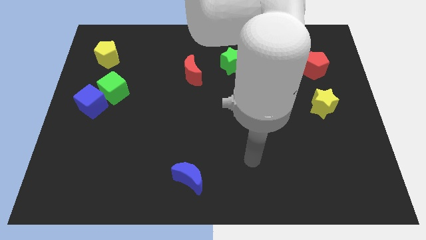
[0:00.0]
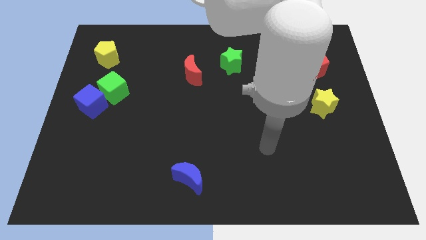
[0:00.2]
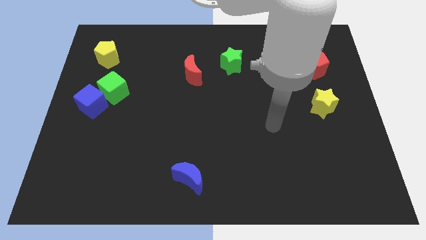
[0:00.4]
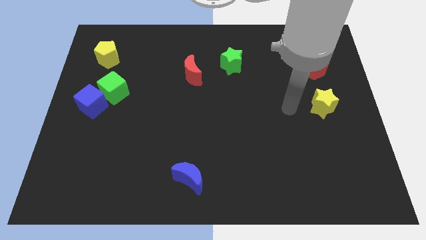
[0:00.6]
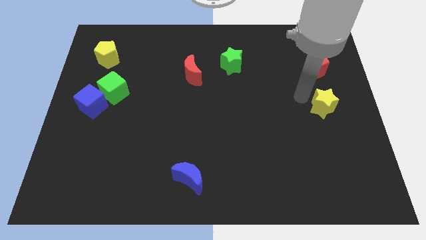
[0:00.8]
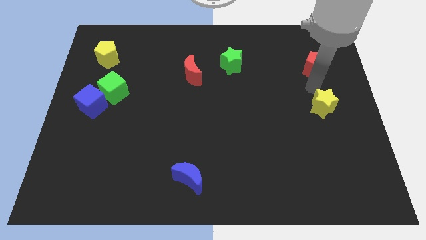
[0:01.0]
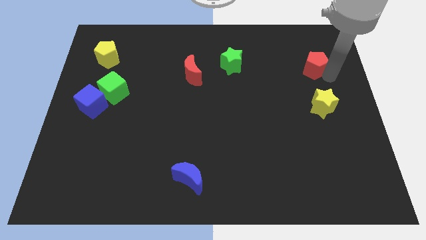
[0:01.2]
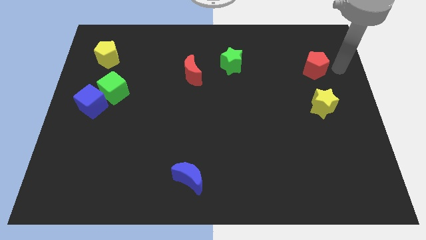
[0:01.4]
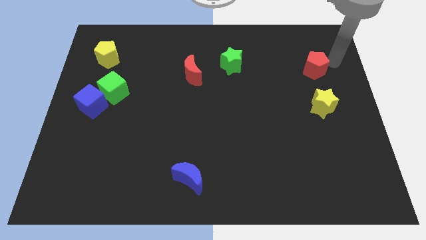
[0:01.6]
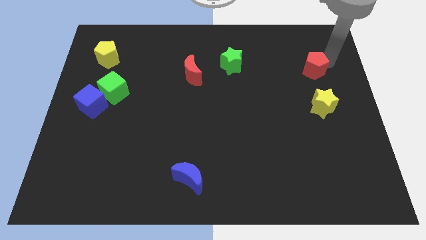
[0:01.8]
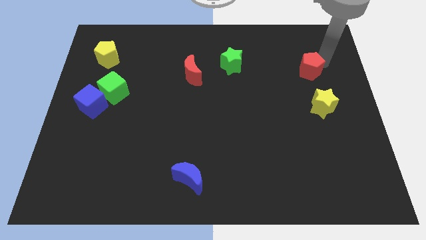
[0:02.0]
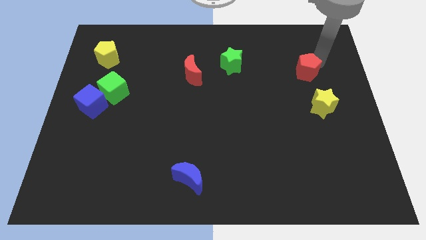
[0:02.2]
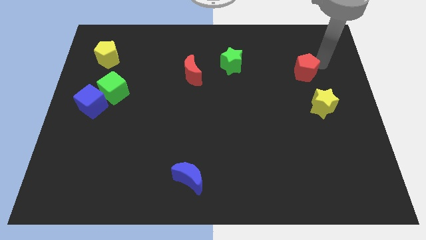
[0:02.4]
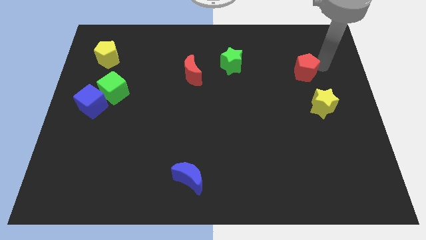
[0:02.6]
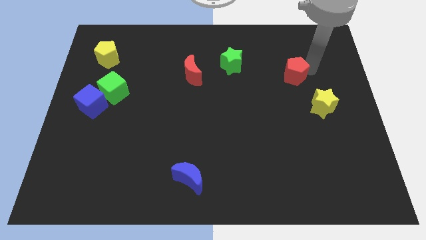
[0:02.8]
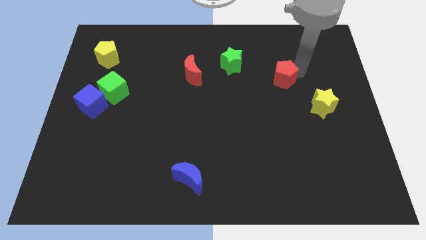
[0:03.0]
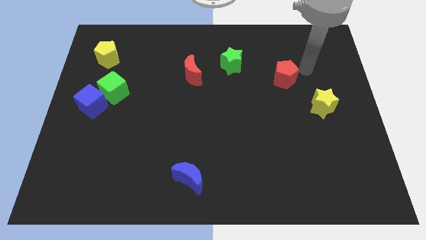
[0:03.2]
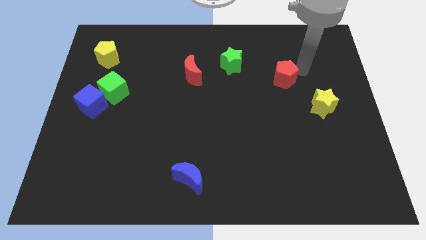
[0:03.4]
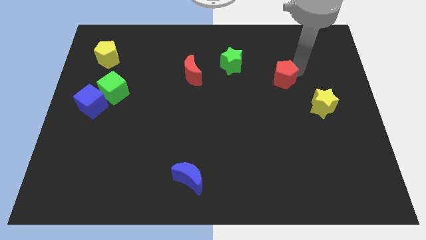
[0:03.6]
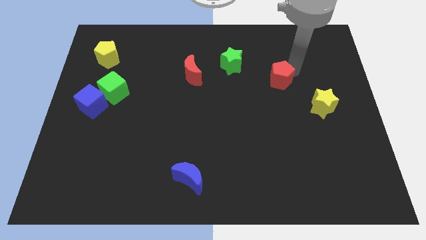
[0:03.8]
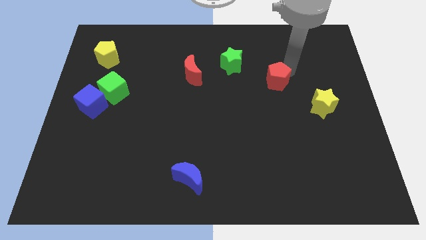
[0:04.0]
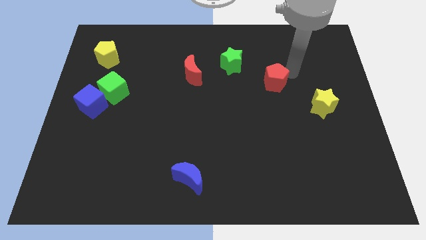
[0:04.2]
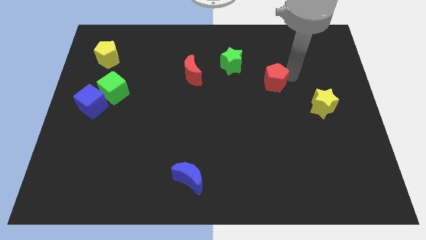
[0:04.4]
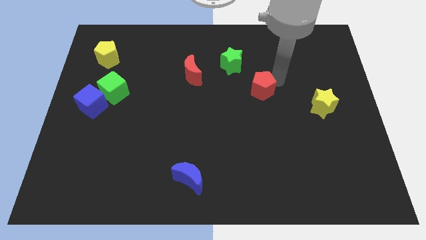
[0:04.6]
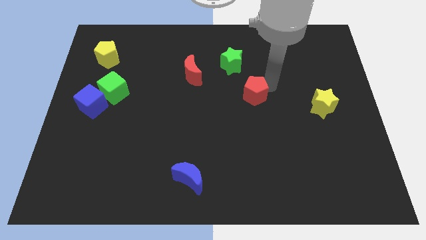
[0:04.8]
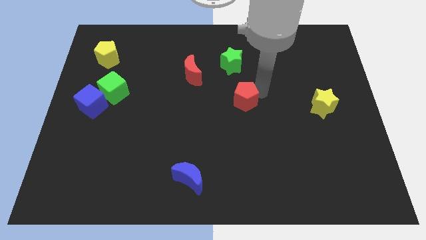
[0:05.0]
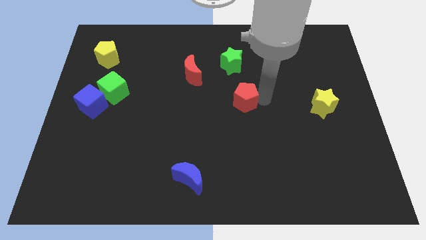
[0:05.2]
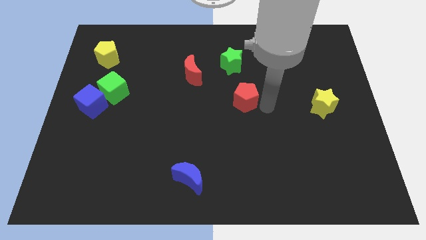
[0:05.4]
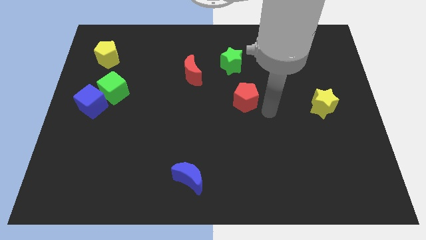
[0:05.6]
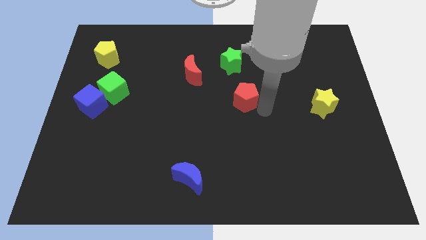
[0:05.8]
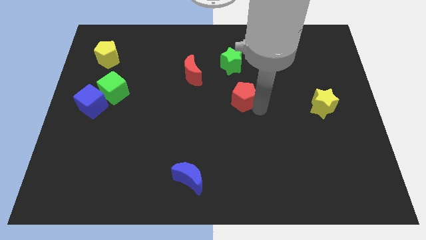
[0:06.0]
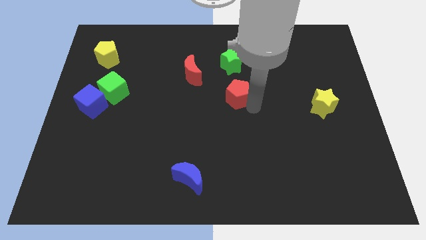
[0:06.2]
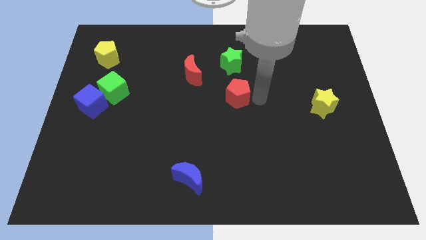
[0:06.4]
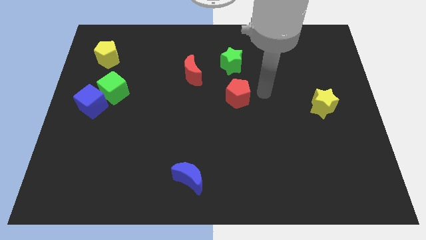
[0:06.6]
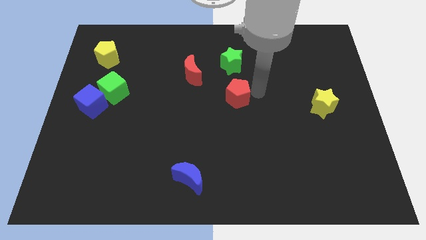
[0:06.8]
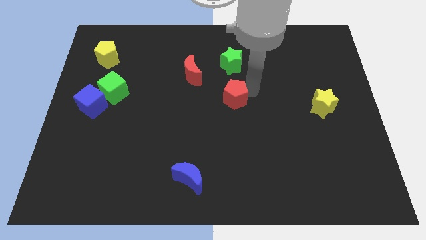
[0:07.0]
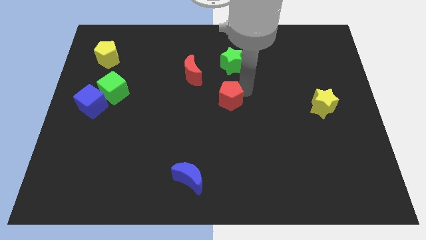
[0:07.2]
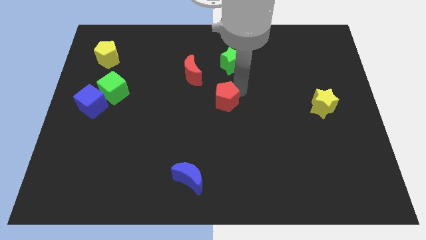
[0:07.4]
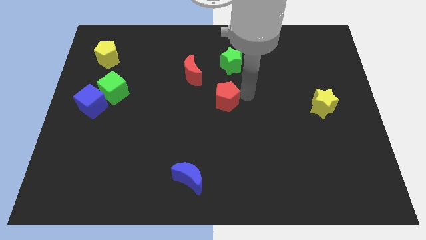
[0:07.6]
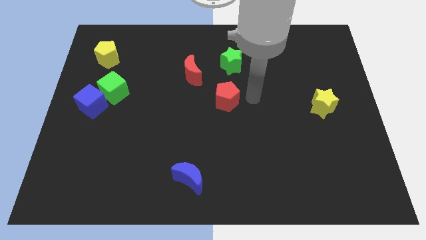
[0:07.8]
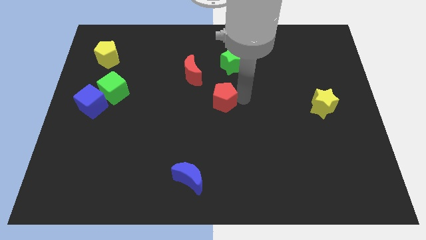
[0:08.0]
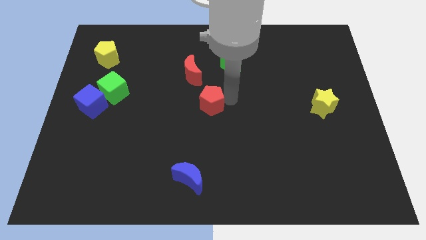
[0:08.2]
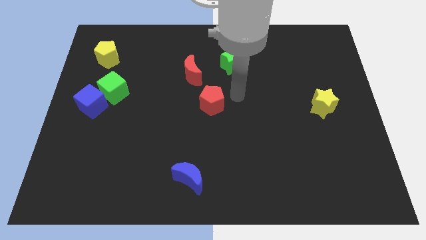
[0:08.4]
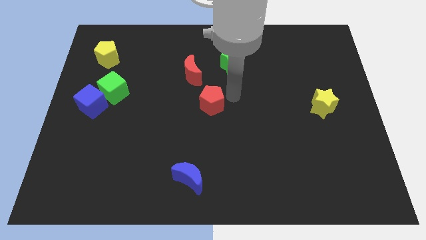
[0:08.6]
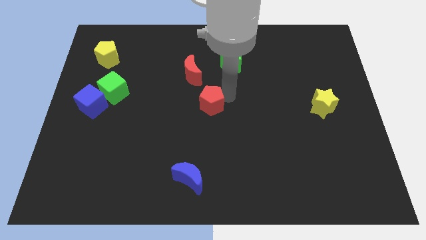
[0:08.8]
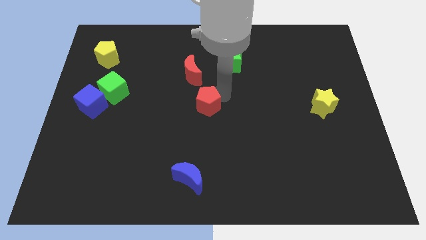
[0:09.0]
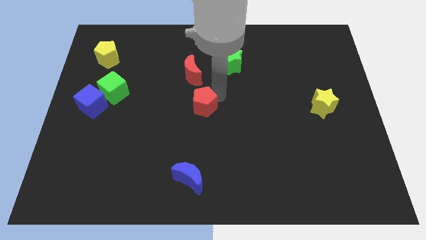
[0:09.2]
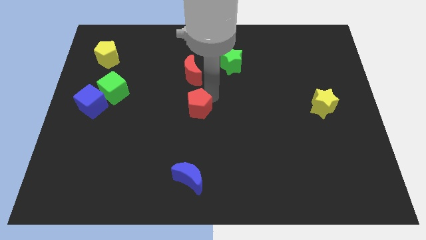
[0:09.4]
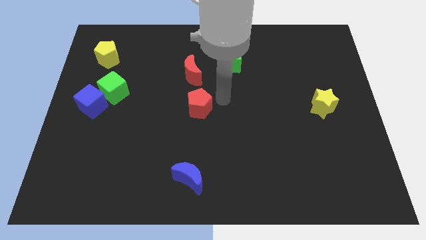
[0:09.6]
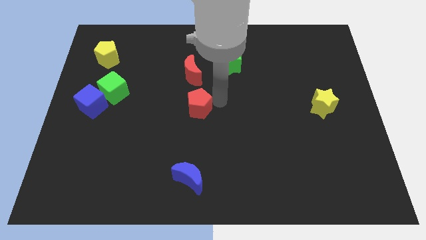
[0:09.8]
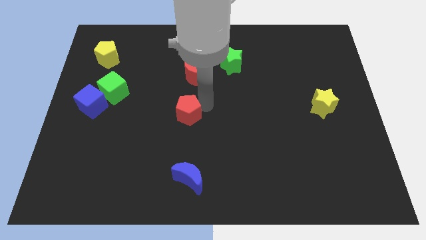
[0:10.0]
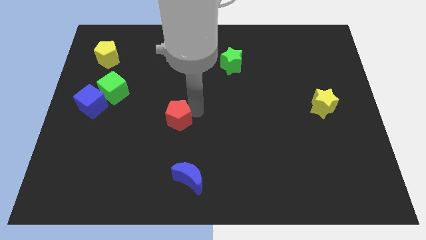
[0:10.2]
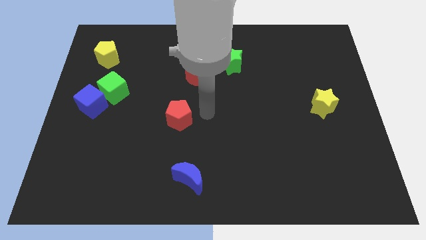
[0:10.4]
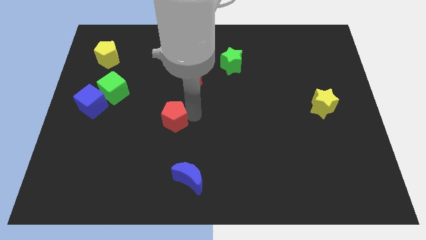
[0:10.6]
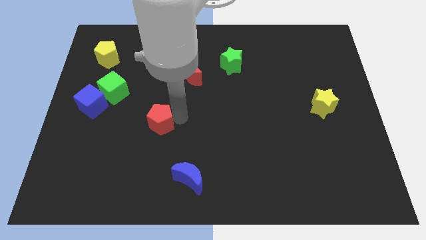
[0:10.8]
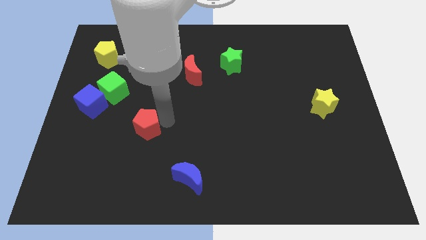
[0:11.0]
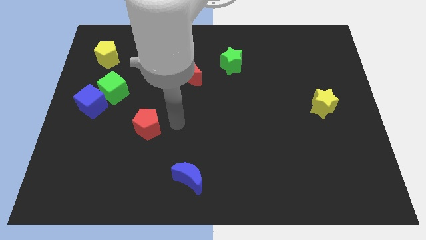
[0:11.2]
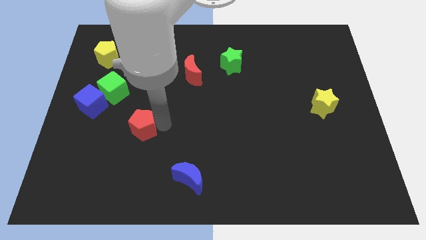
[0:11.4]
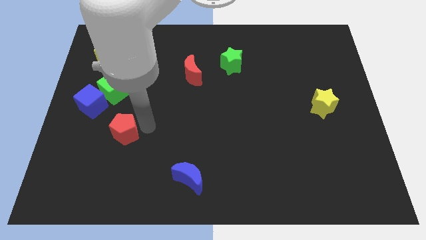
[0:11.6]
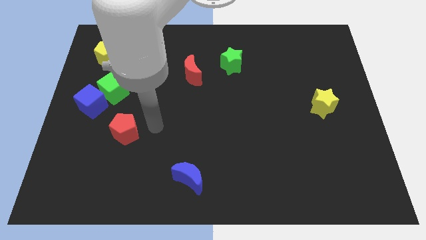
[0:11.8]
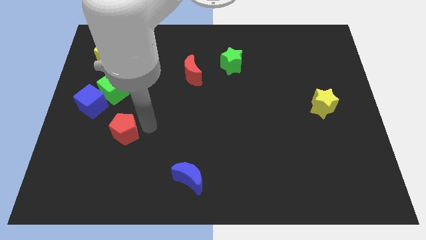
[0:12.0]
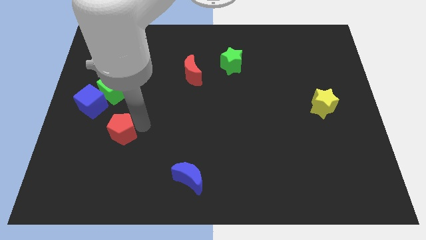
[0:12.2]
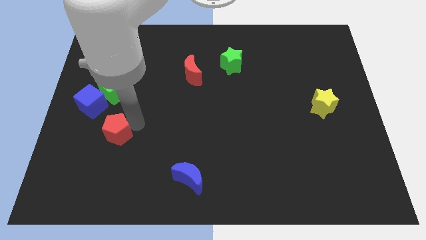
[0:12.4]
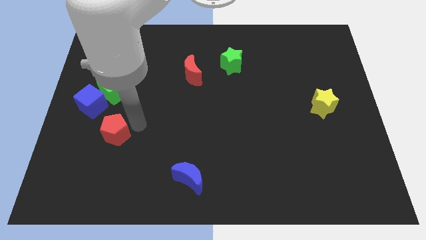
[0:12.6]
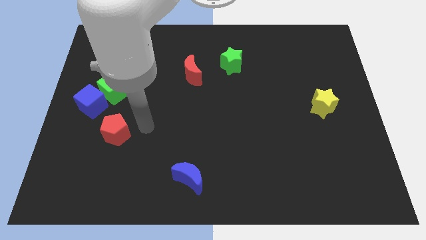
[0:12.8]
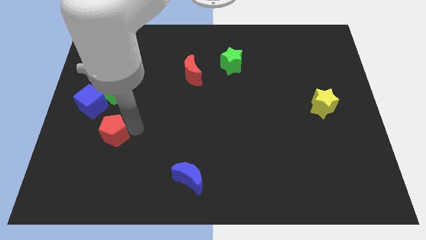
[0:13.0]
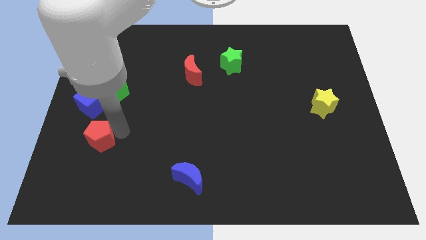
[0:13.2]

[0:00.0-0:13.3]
push the red pentagon to the bottom side of the blue cube
